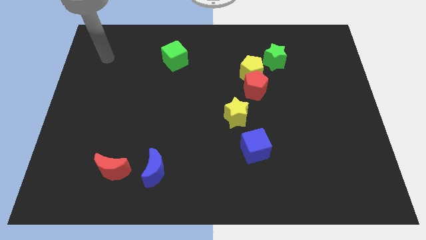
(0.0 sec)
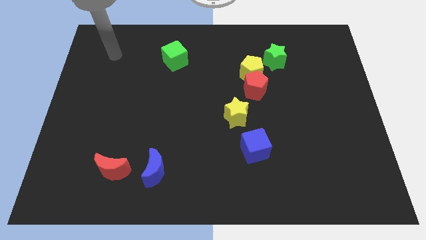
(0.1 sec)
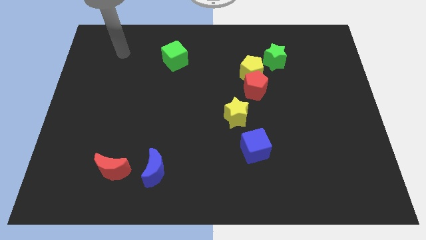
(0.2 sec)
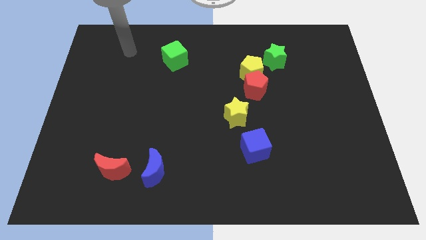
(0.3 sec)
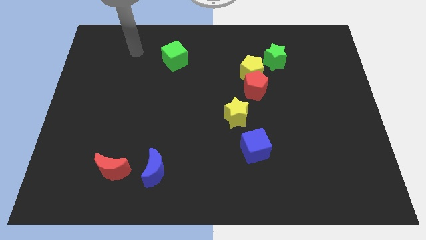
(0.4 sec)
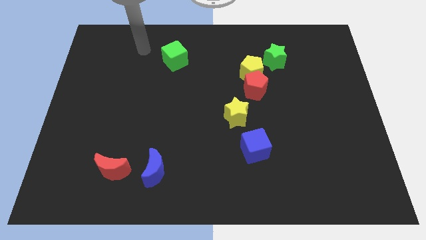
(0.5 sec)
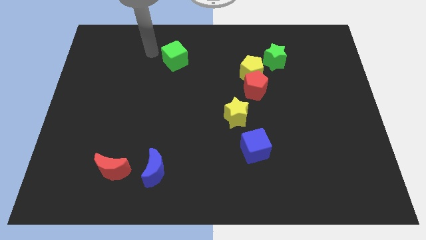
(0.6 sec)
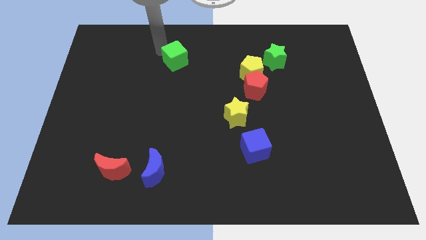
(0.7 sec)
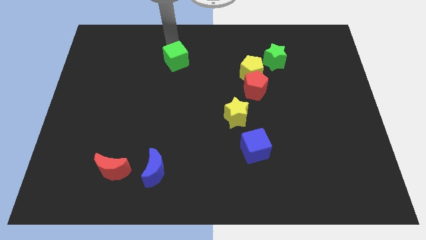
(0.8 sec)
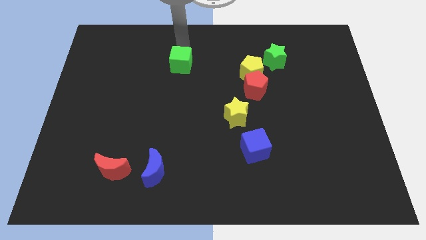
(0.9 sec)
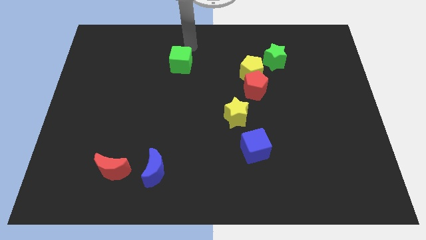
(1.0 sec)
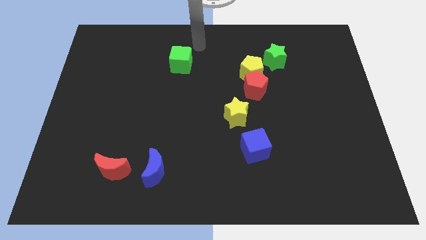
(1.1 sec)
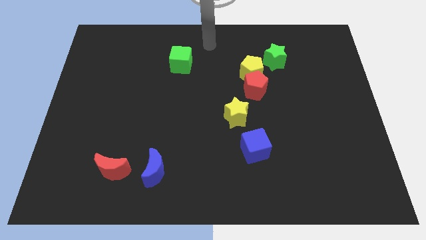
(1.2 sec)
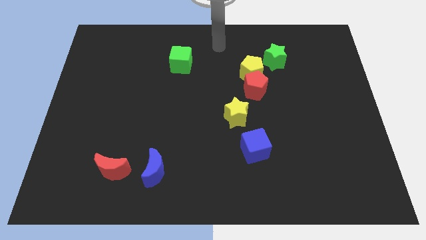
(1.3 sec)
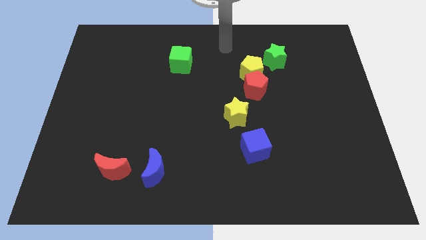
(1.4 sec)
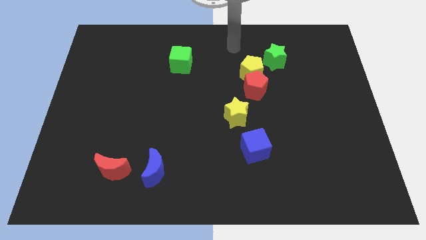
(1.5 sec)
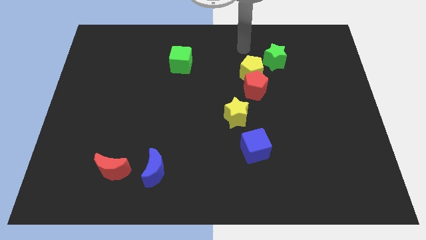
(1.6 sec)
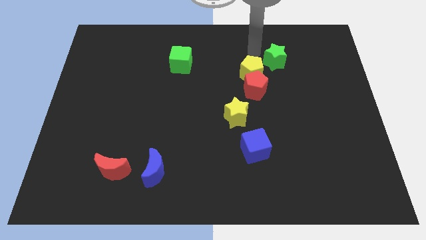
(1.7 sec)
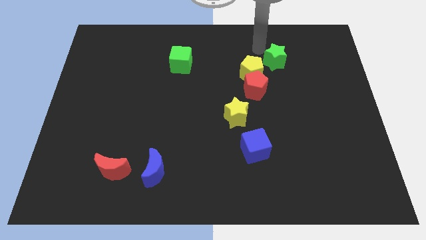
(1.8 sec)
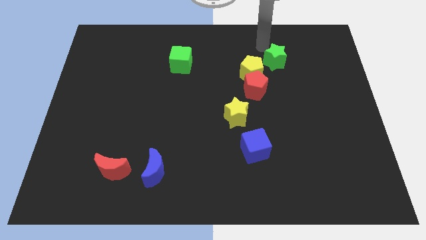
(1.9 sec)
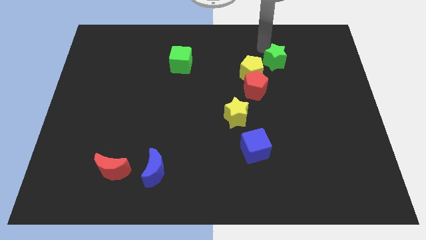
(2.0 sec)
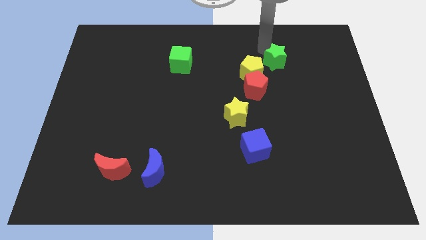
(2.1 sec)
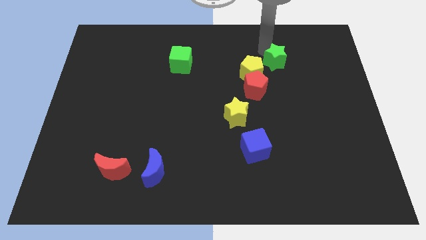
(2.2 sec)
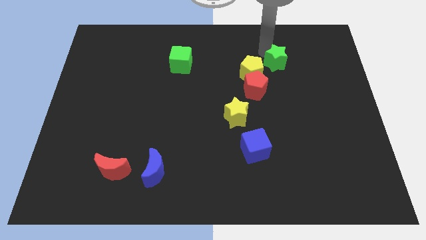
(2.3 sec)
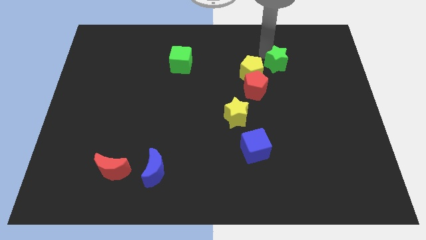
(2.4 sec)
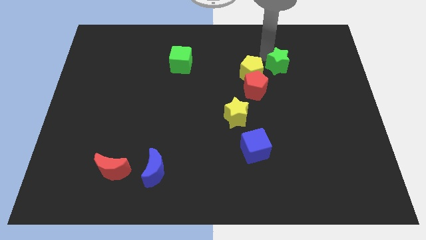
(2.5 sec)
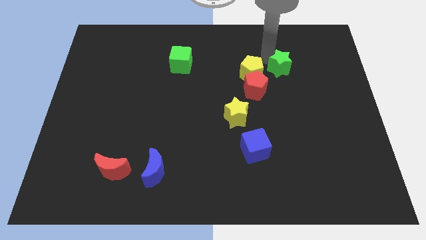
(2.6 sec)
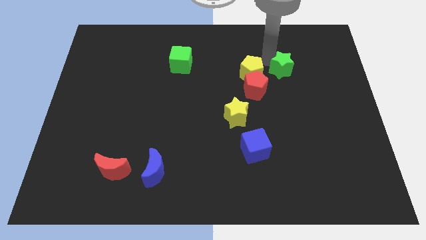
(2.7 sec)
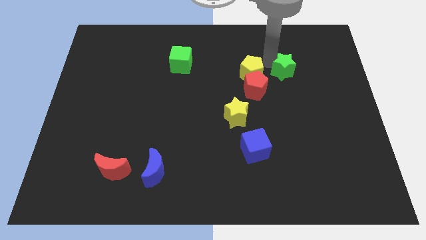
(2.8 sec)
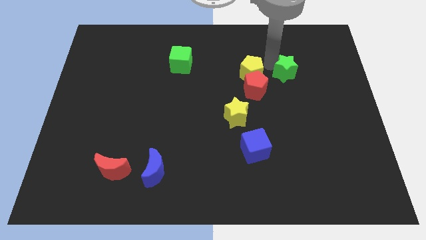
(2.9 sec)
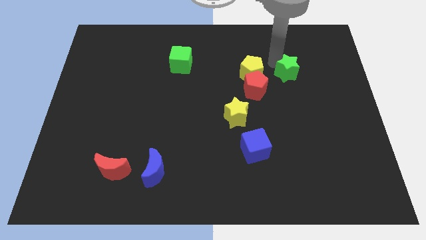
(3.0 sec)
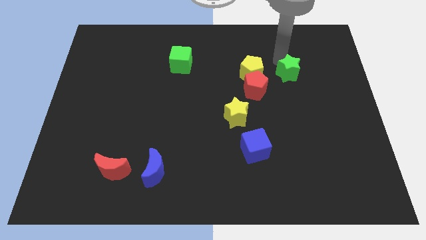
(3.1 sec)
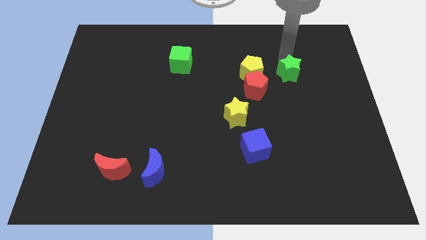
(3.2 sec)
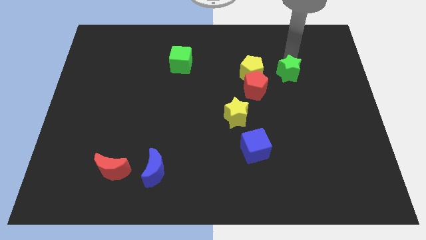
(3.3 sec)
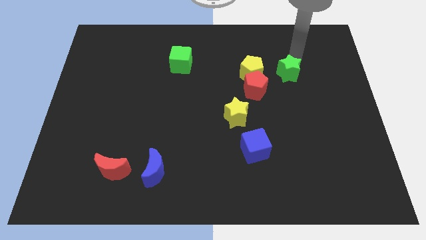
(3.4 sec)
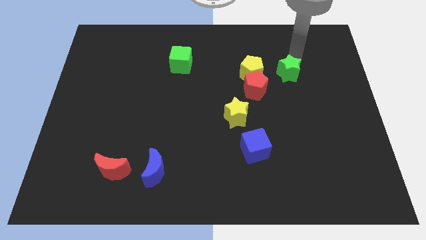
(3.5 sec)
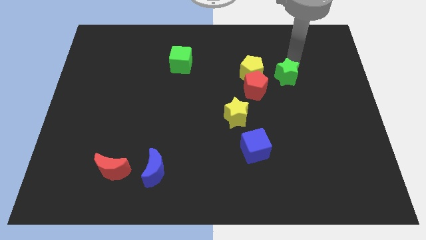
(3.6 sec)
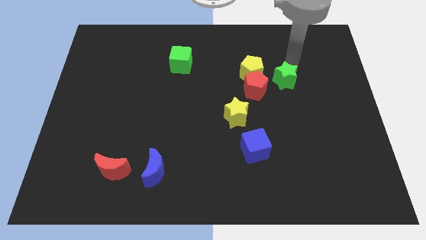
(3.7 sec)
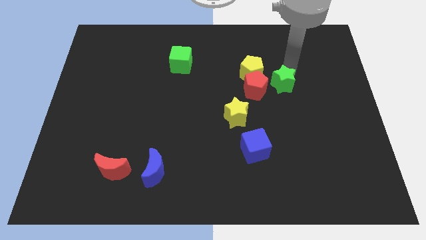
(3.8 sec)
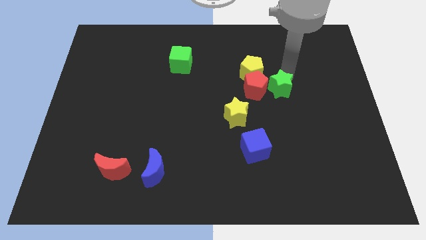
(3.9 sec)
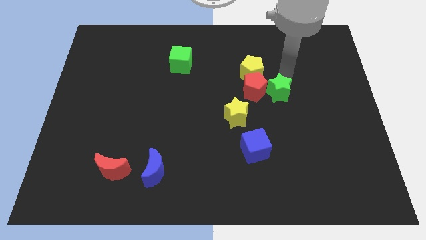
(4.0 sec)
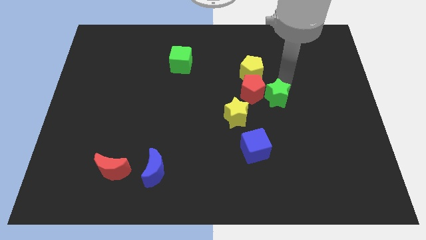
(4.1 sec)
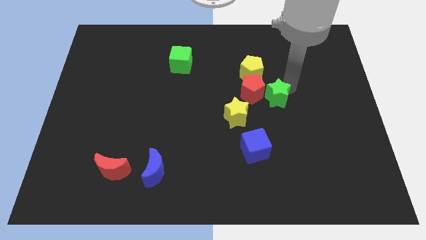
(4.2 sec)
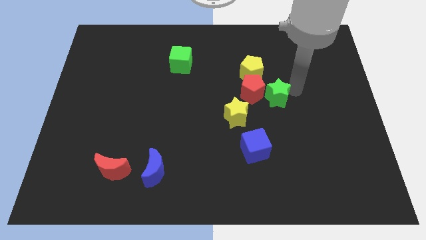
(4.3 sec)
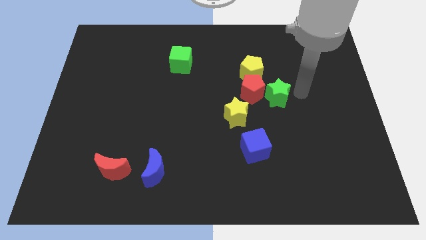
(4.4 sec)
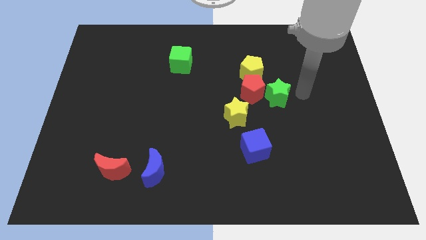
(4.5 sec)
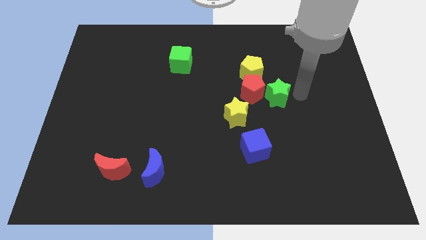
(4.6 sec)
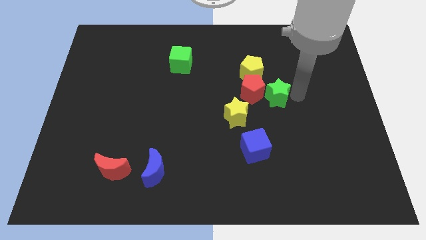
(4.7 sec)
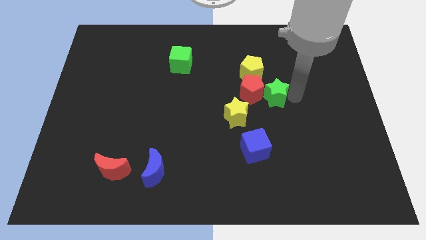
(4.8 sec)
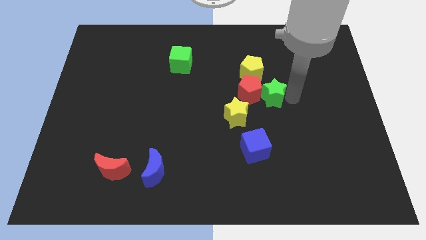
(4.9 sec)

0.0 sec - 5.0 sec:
slide the green star to the bottom of the yellow pentagon

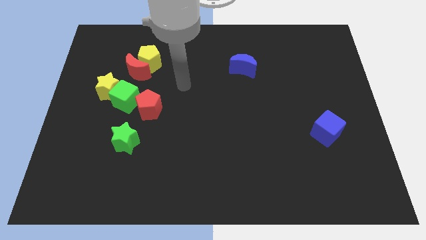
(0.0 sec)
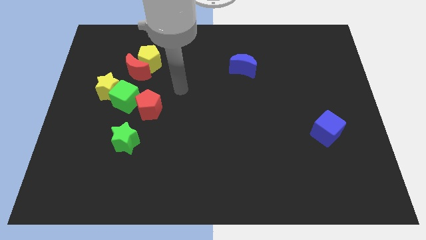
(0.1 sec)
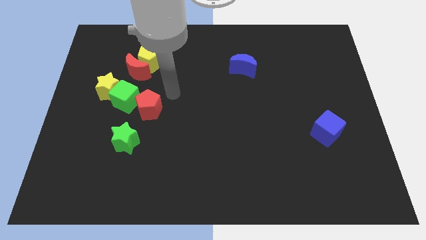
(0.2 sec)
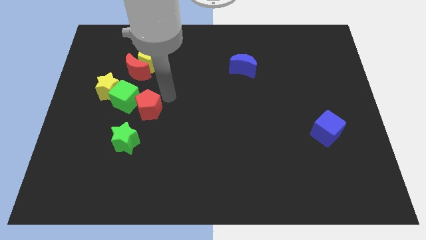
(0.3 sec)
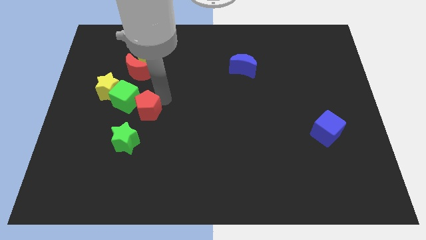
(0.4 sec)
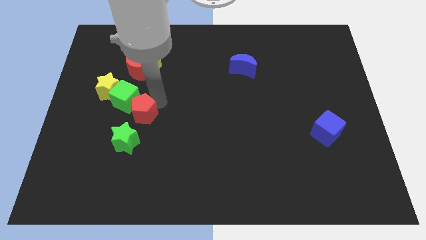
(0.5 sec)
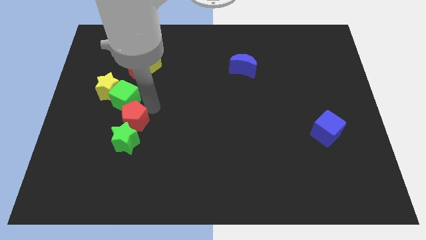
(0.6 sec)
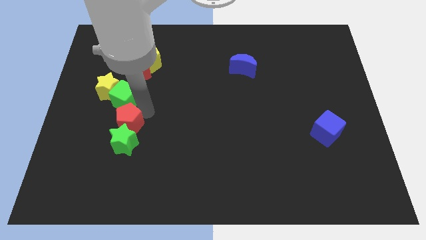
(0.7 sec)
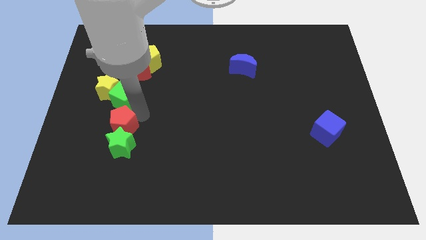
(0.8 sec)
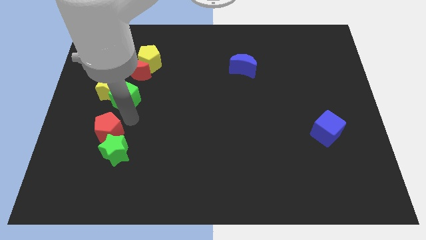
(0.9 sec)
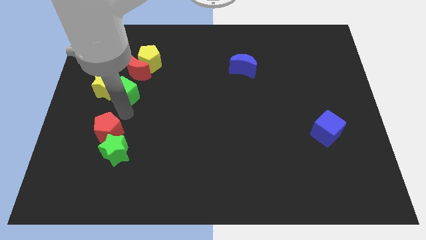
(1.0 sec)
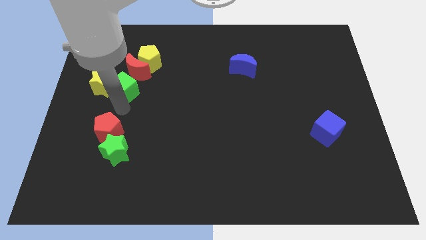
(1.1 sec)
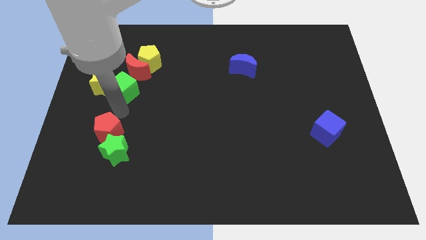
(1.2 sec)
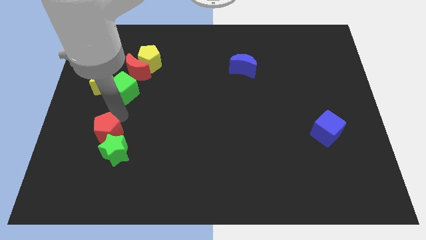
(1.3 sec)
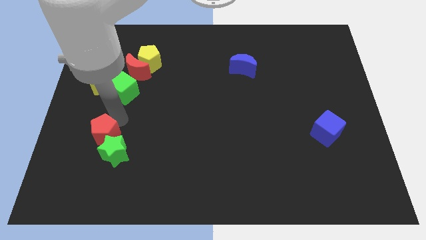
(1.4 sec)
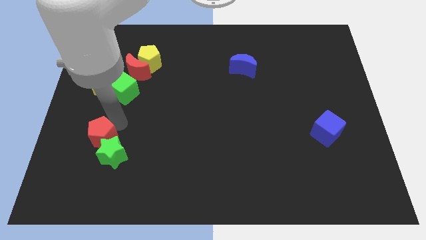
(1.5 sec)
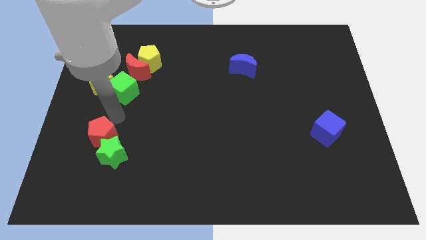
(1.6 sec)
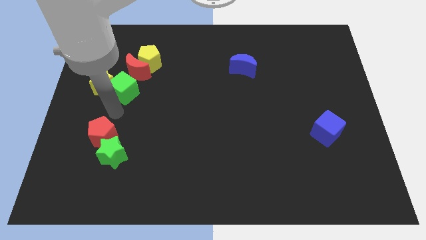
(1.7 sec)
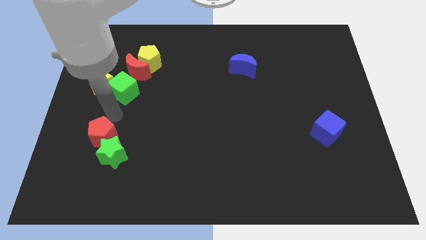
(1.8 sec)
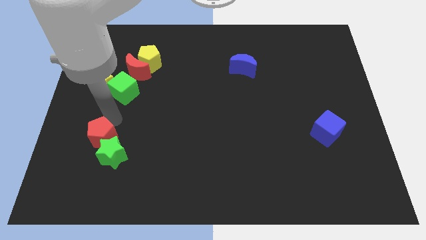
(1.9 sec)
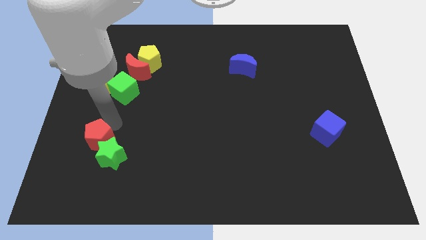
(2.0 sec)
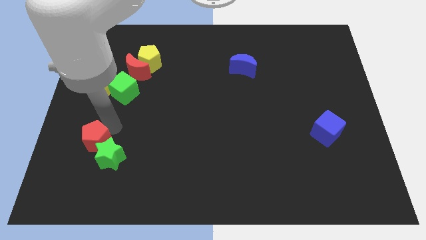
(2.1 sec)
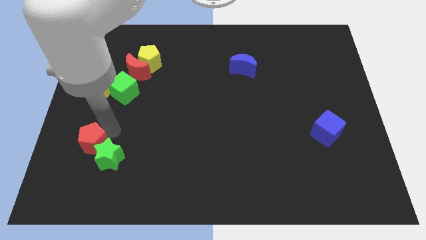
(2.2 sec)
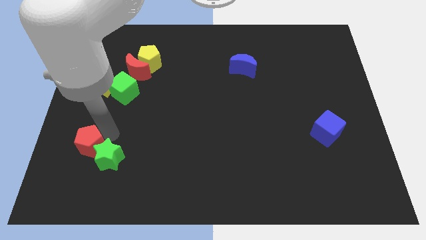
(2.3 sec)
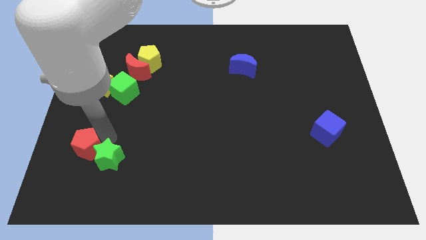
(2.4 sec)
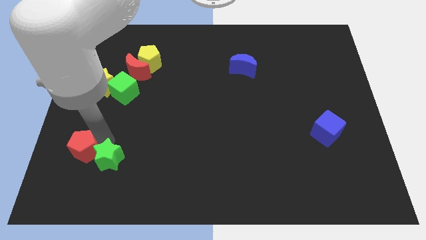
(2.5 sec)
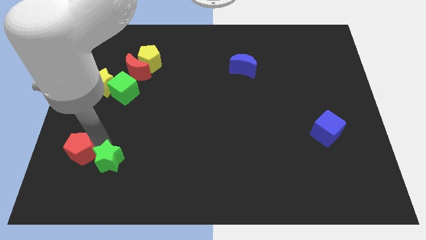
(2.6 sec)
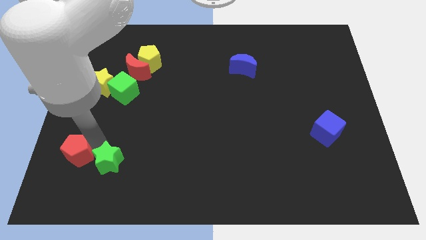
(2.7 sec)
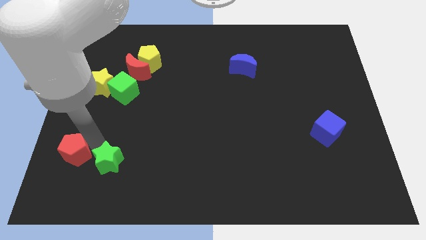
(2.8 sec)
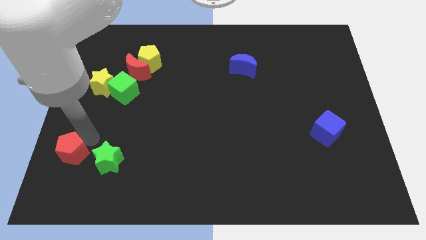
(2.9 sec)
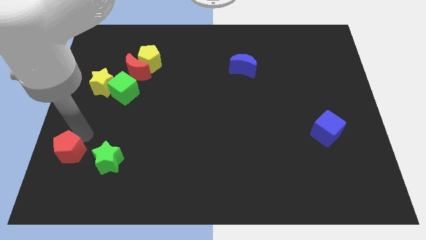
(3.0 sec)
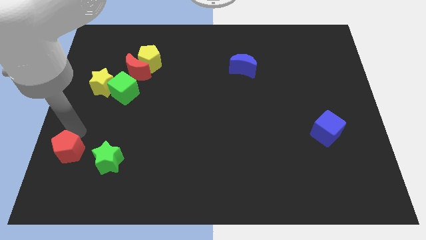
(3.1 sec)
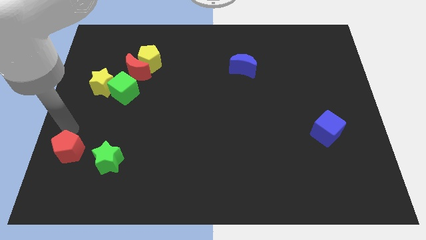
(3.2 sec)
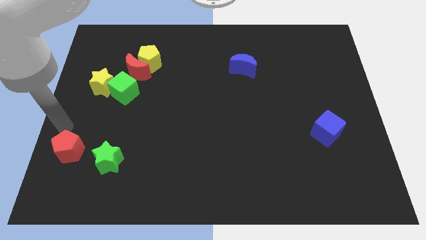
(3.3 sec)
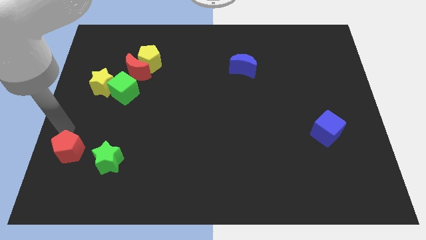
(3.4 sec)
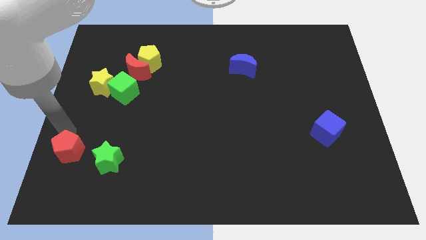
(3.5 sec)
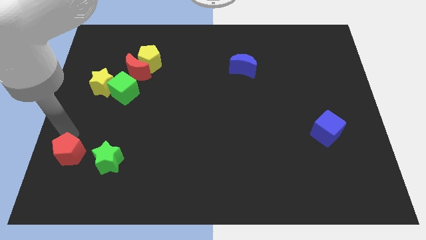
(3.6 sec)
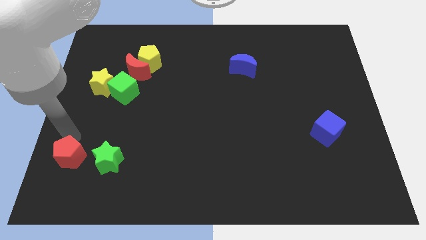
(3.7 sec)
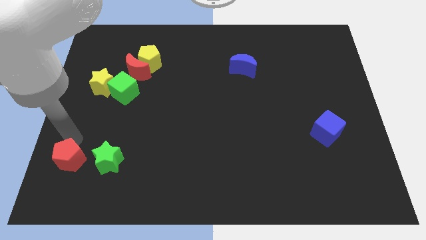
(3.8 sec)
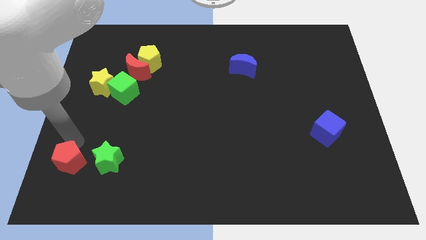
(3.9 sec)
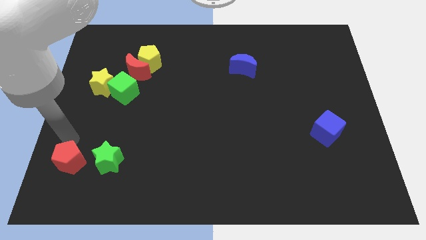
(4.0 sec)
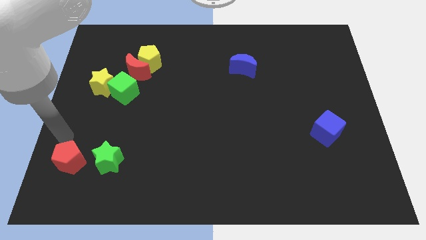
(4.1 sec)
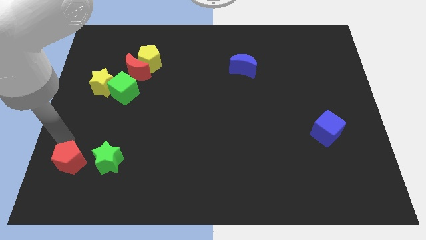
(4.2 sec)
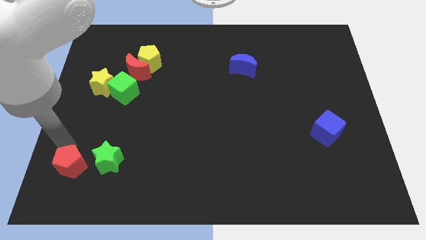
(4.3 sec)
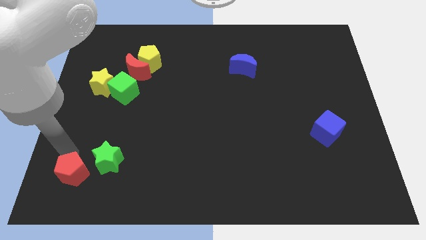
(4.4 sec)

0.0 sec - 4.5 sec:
push the red pentagon diagonally down and to the left of the green star
